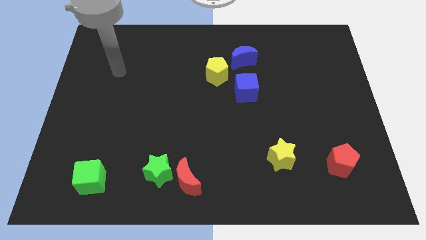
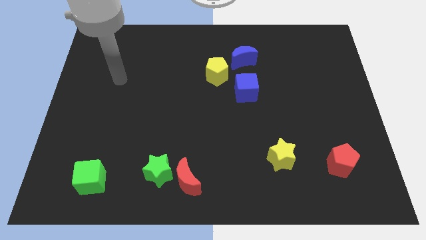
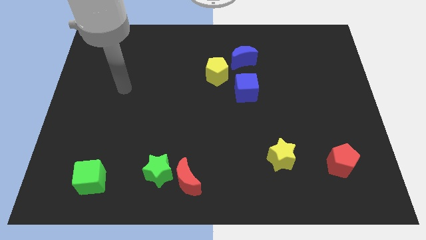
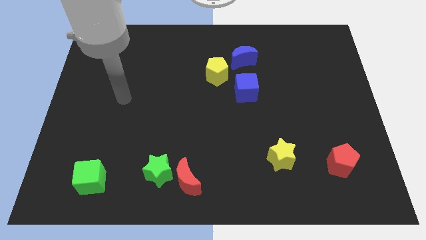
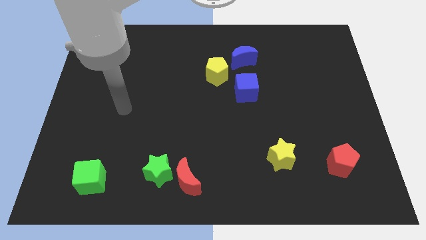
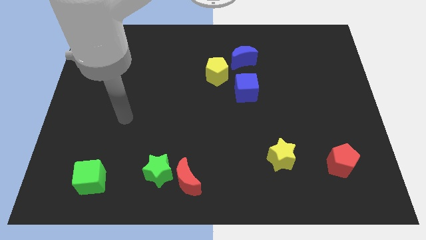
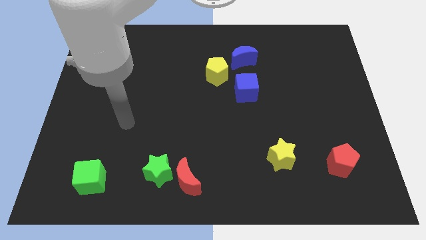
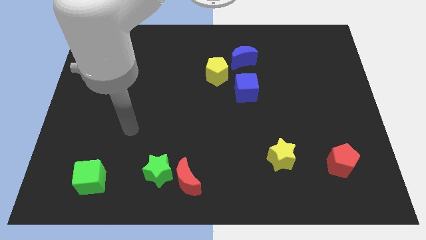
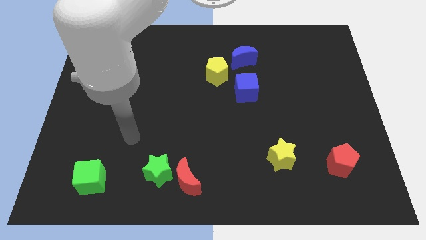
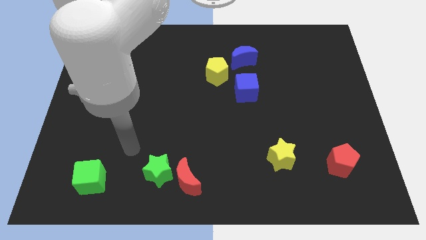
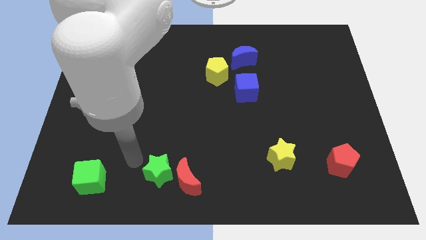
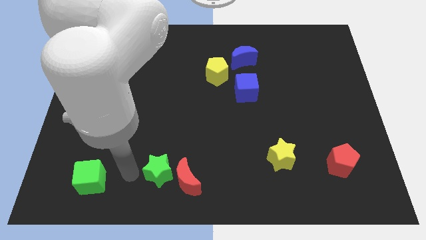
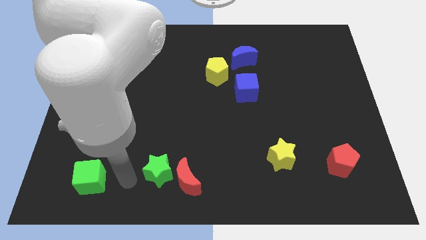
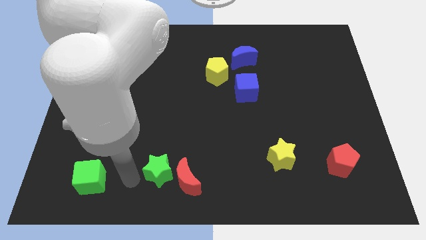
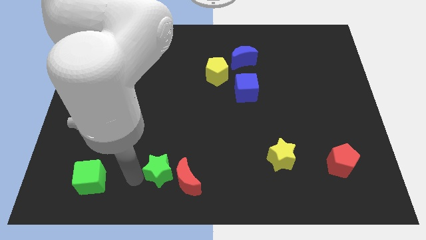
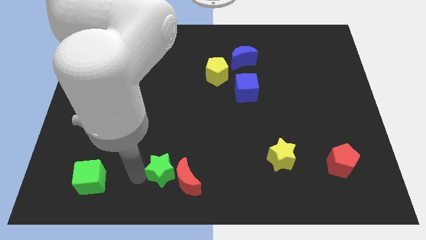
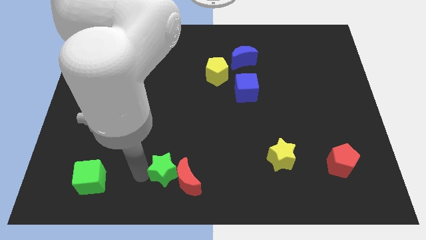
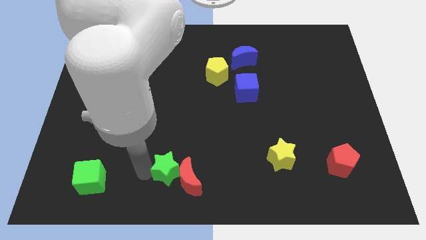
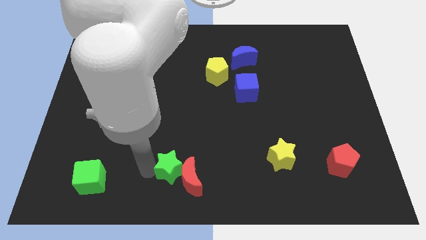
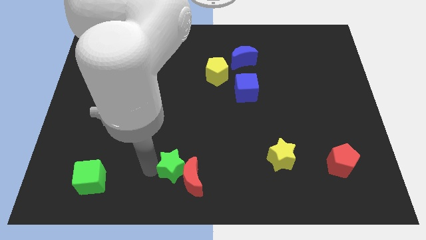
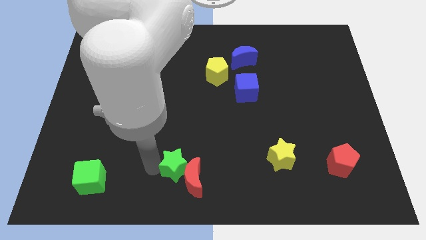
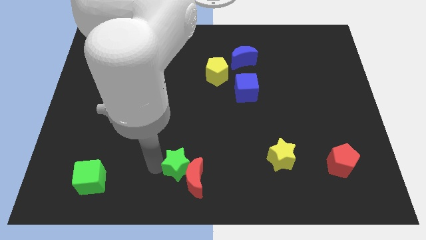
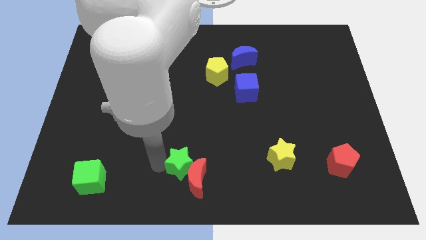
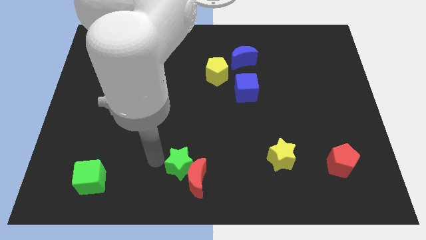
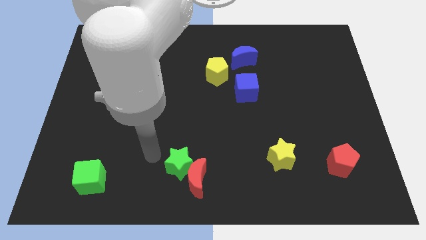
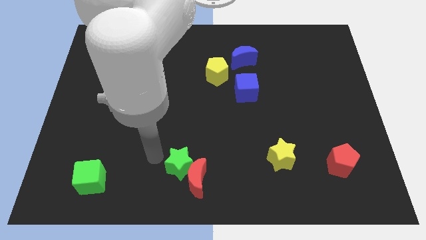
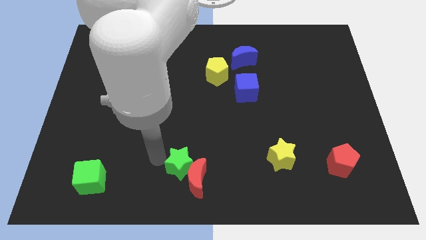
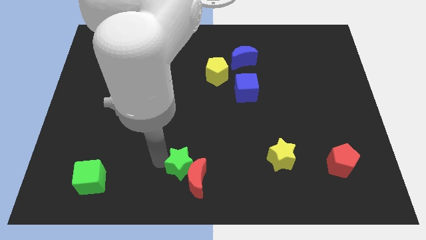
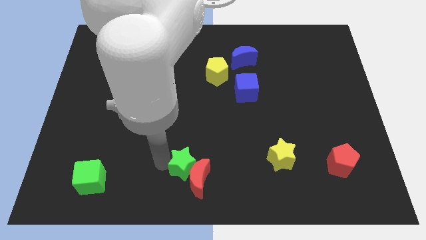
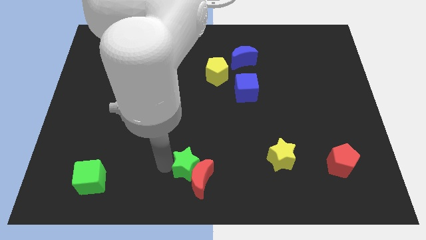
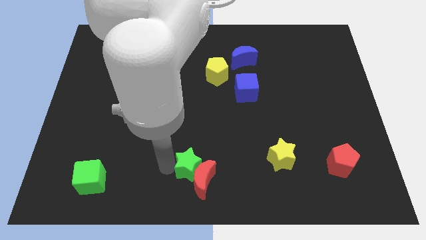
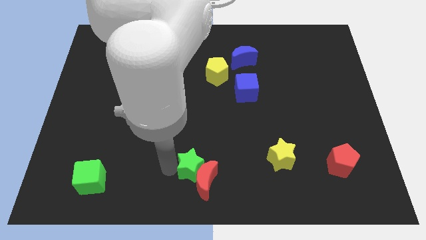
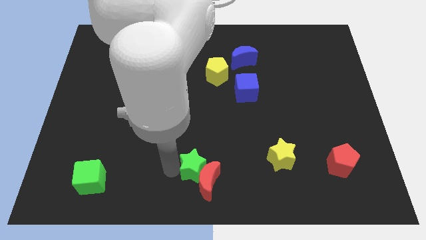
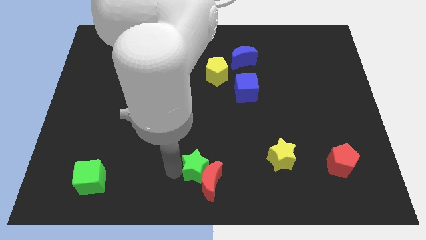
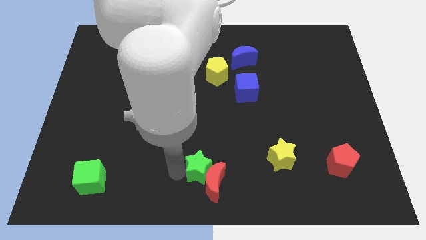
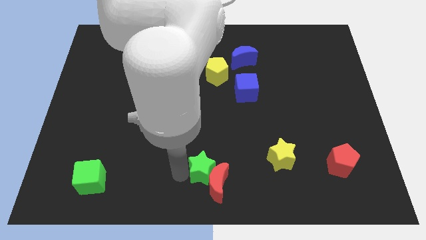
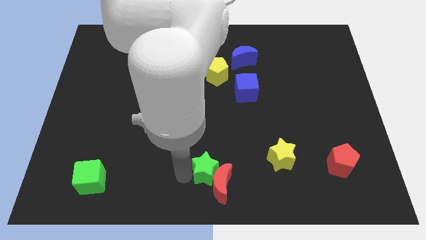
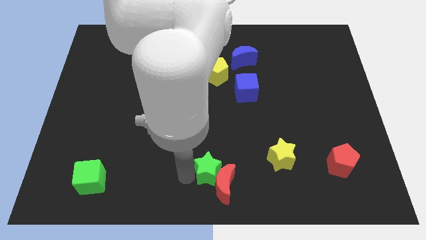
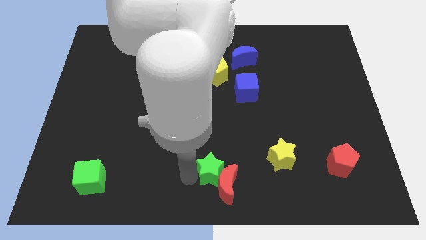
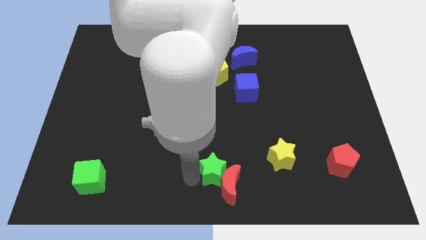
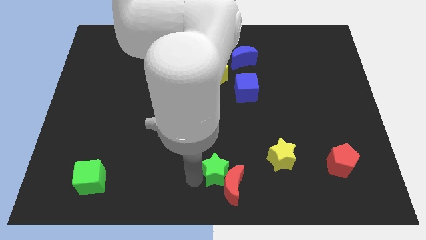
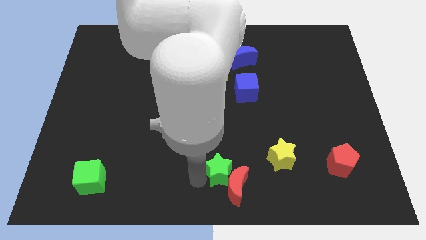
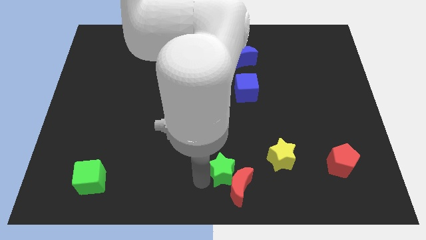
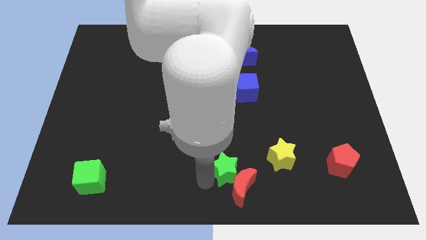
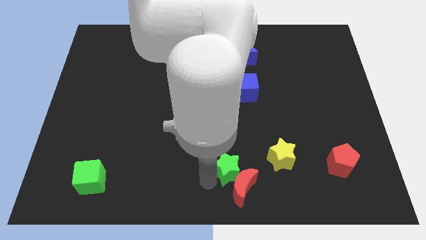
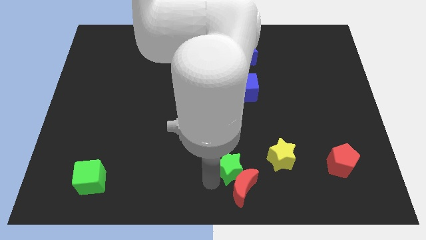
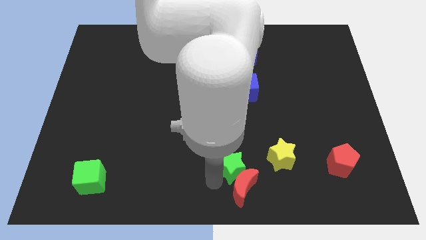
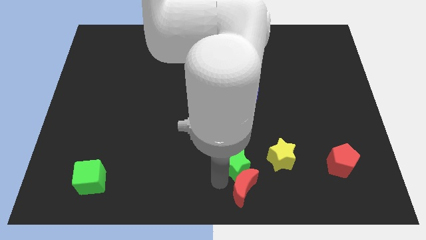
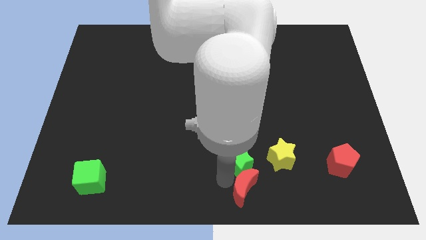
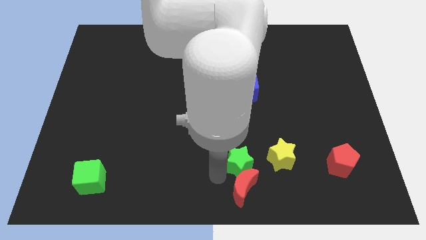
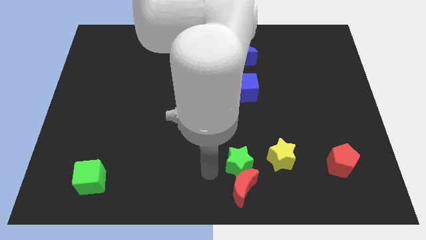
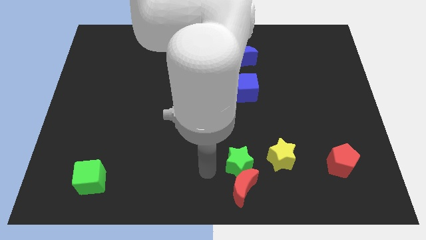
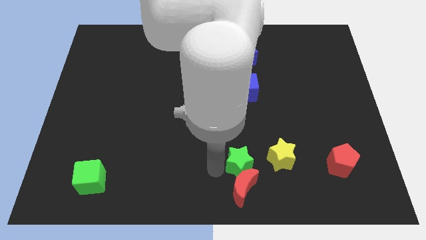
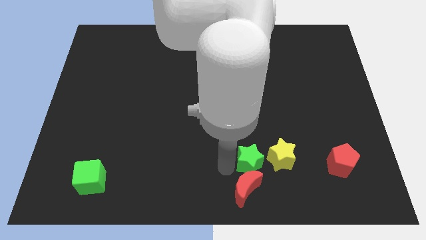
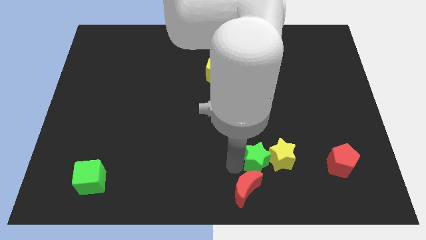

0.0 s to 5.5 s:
put the green star to the yellow star

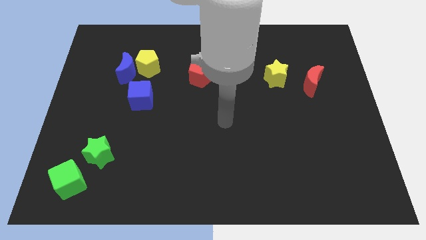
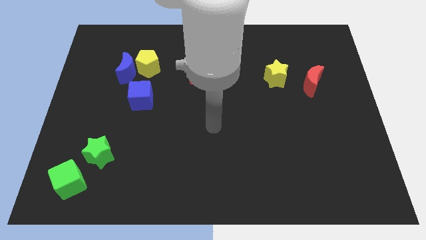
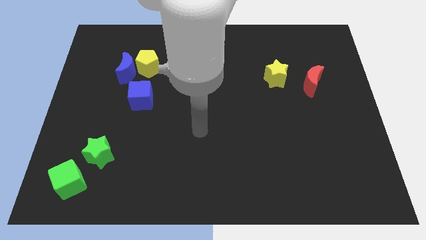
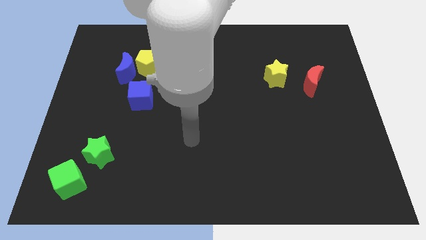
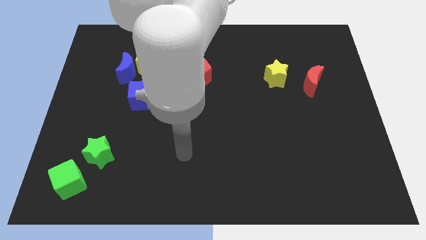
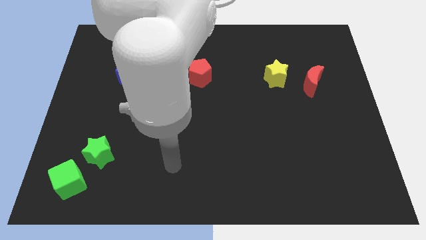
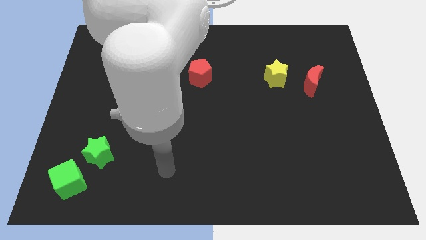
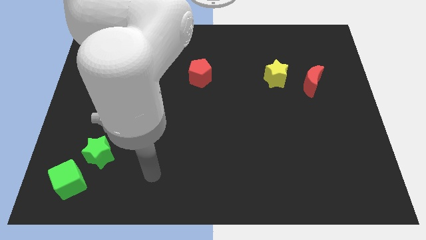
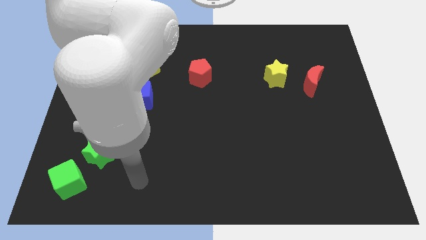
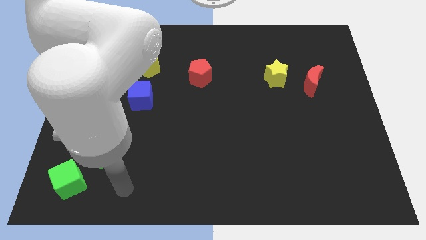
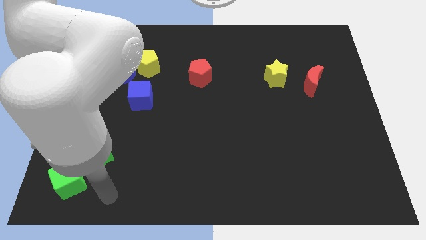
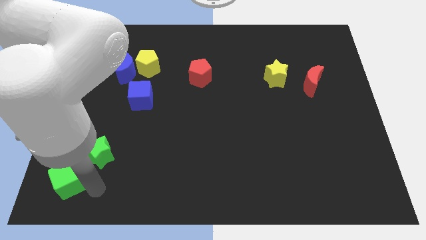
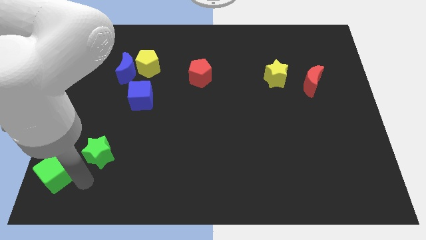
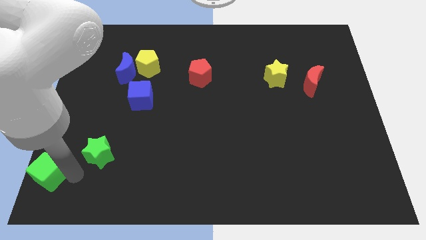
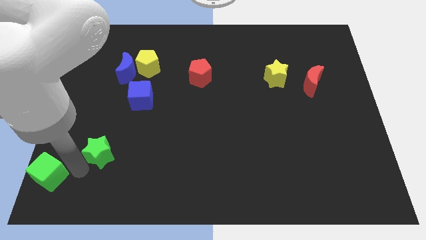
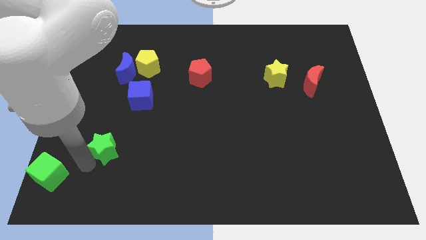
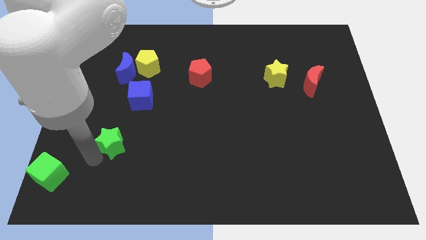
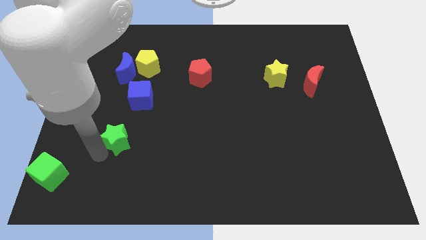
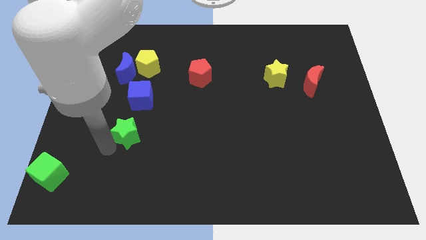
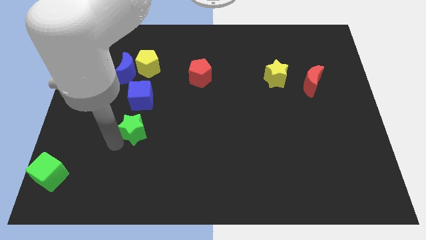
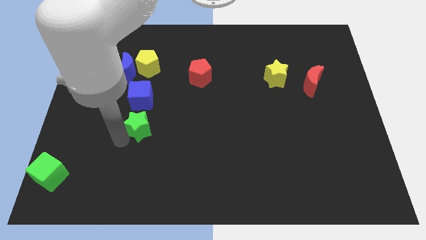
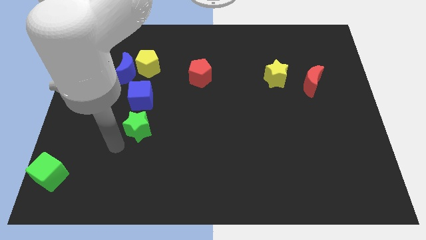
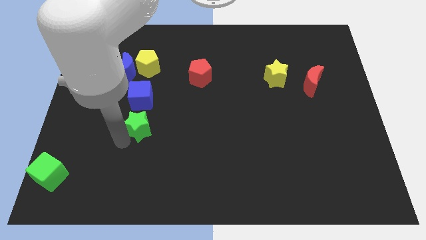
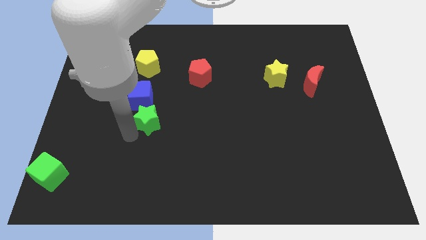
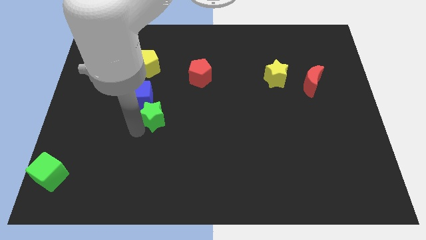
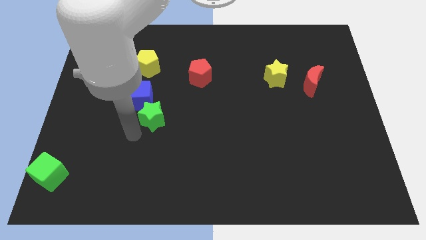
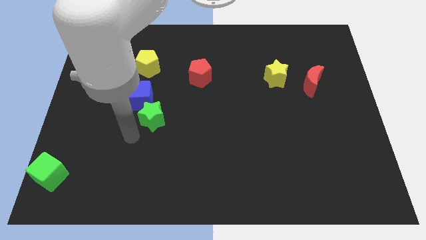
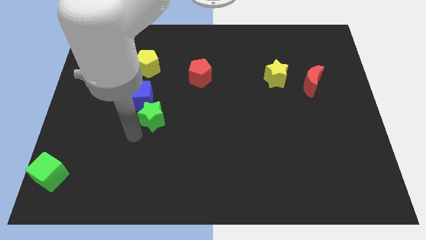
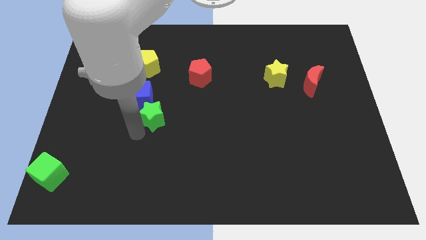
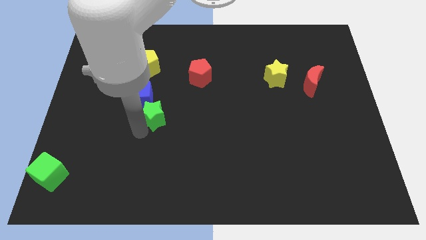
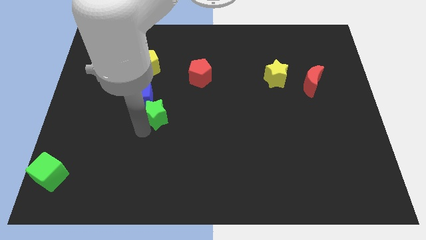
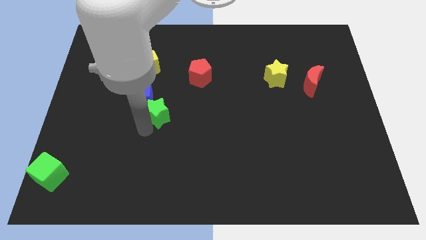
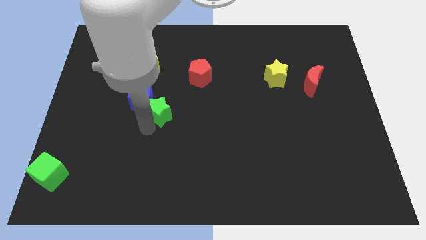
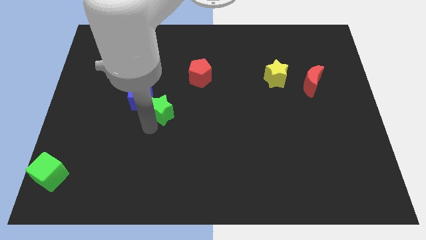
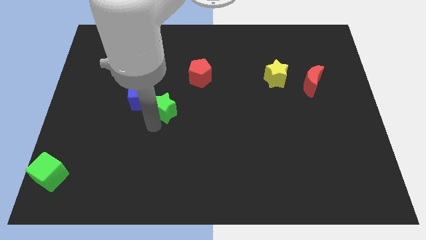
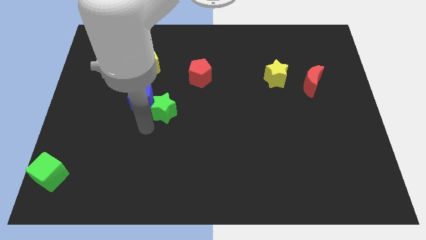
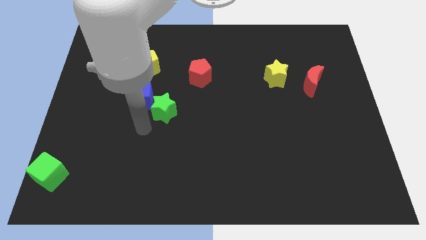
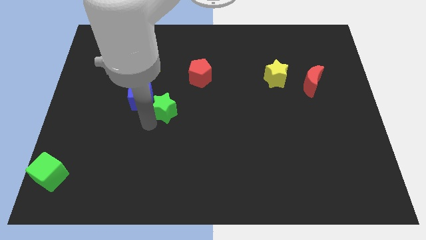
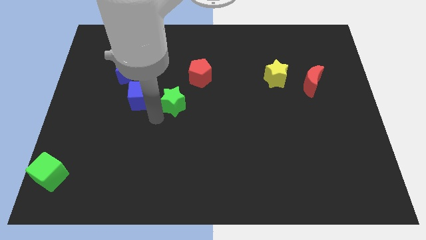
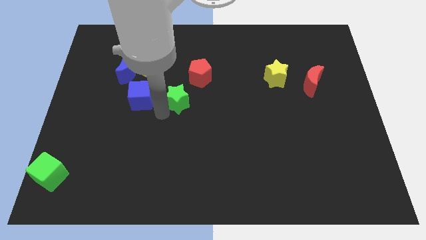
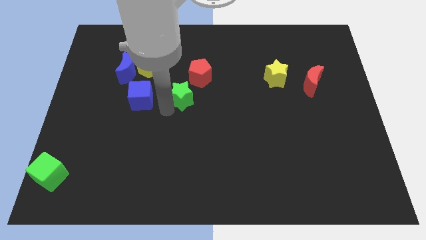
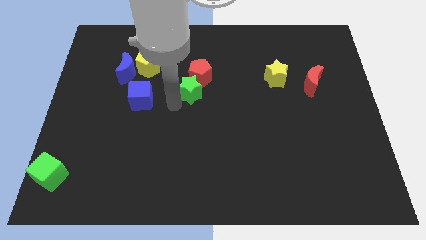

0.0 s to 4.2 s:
push the green star next to the red pentagon
